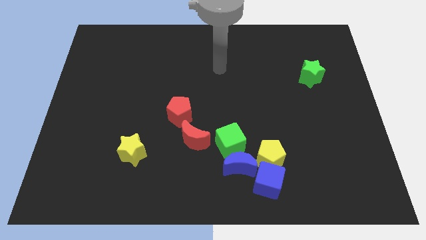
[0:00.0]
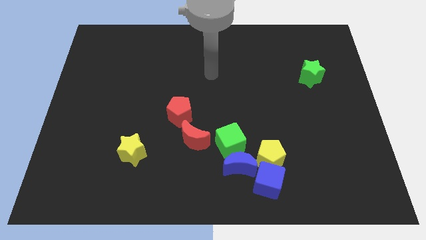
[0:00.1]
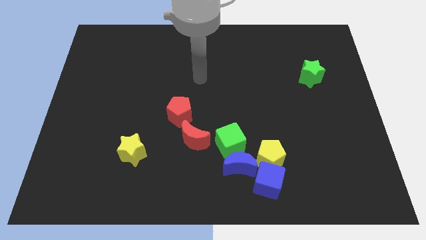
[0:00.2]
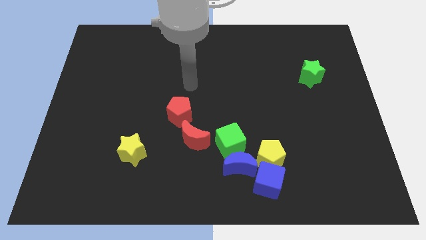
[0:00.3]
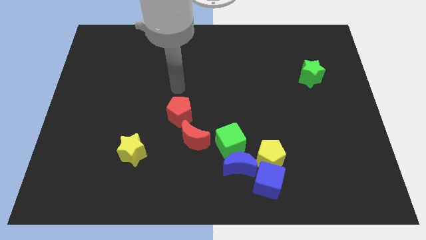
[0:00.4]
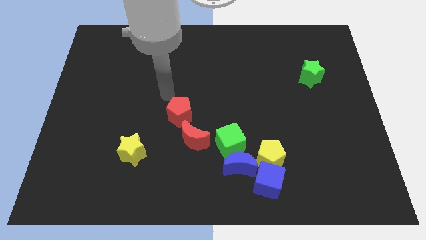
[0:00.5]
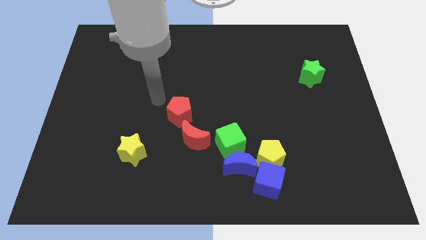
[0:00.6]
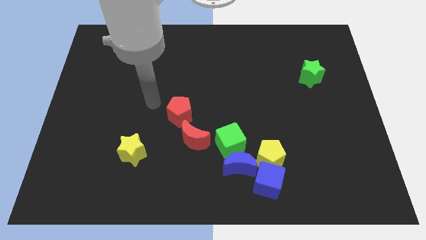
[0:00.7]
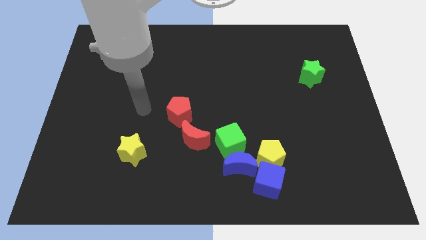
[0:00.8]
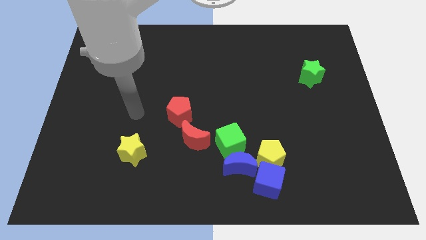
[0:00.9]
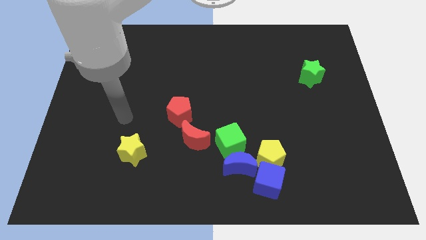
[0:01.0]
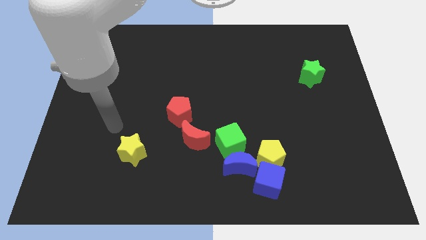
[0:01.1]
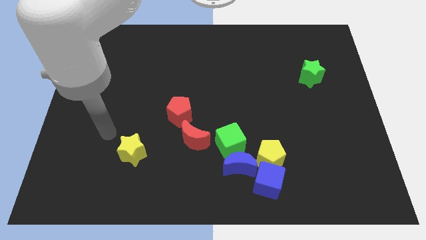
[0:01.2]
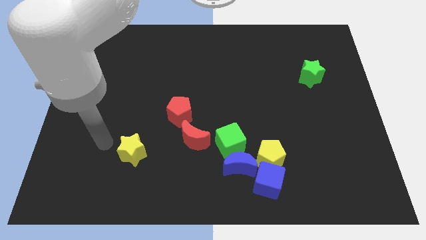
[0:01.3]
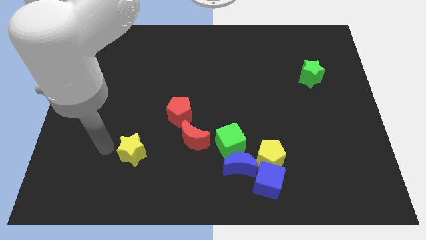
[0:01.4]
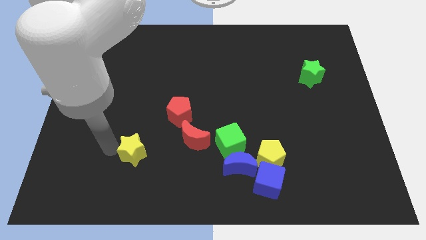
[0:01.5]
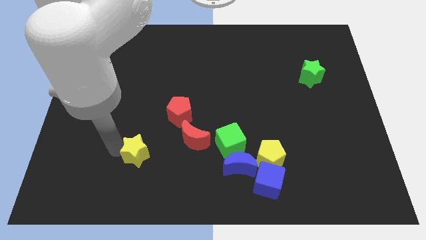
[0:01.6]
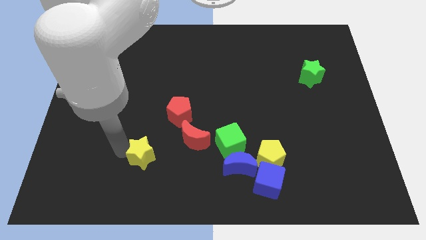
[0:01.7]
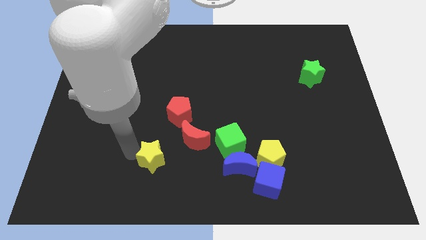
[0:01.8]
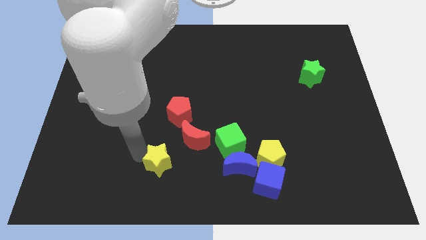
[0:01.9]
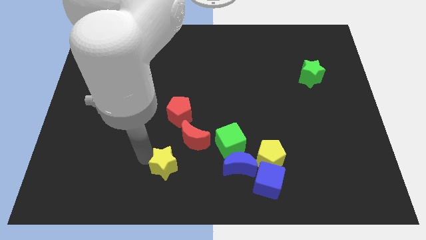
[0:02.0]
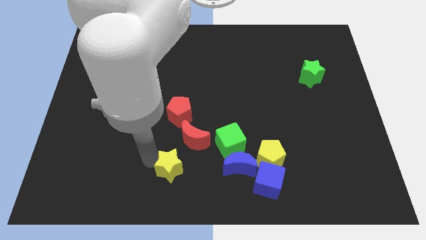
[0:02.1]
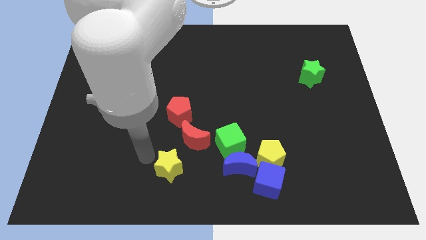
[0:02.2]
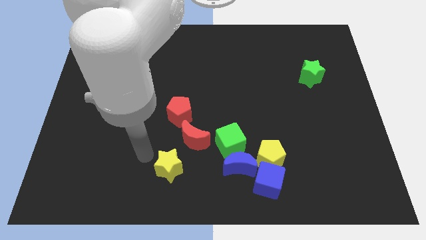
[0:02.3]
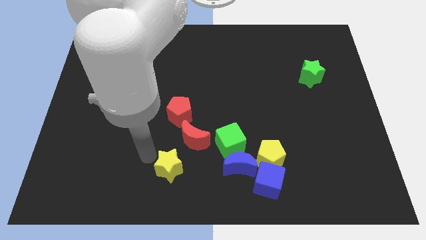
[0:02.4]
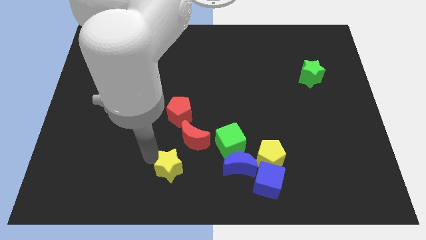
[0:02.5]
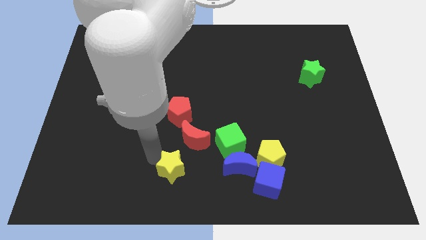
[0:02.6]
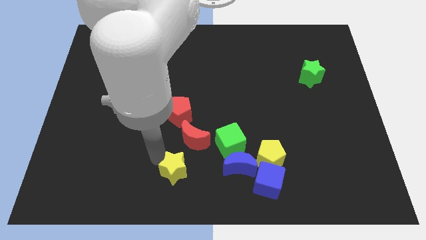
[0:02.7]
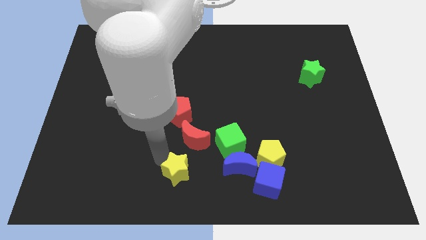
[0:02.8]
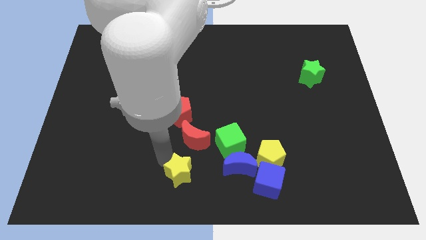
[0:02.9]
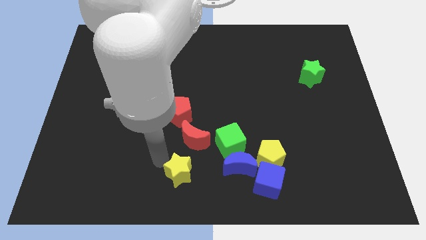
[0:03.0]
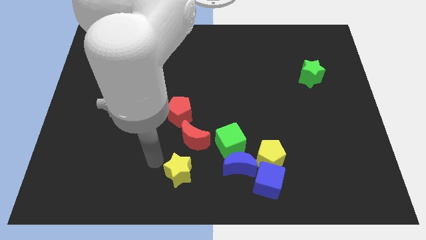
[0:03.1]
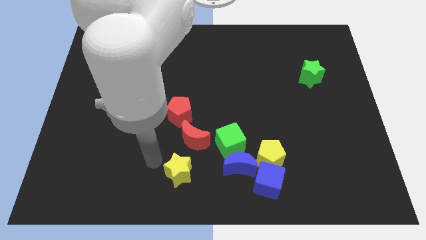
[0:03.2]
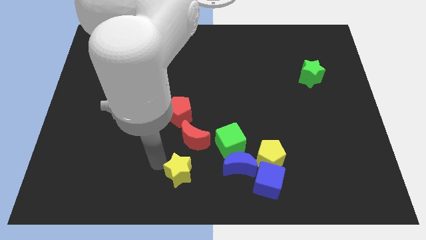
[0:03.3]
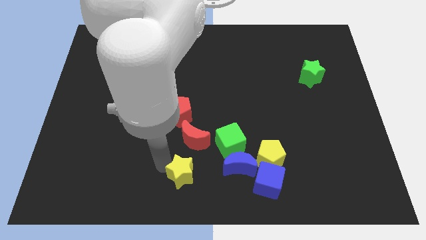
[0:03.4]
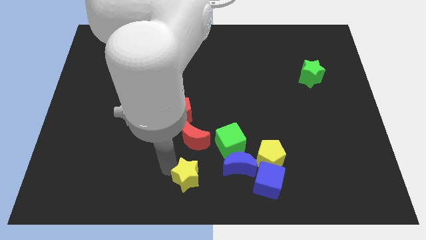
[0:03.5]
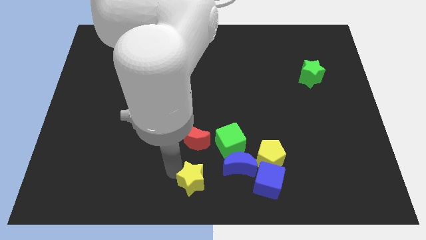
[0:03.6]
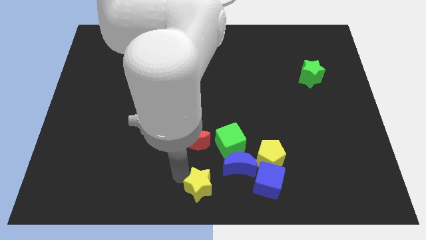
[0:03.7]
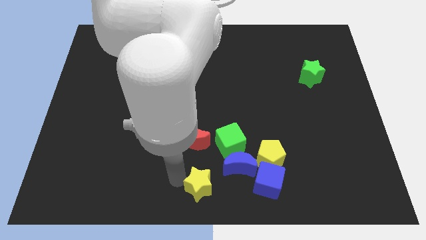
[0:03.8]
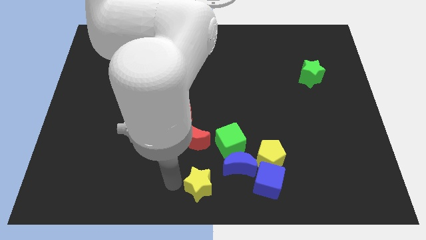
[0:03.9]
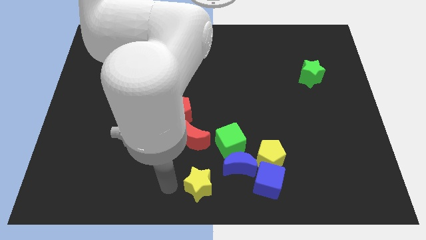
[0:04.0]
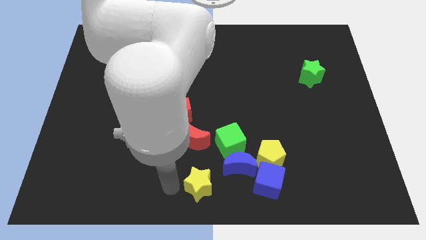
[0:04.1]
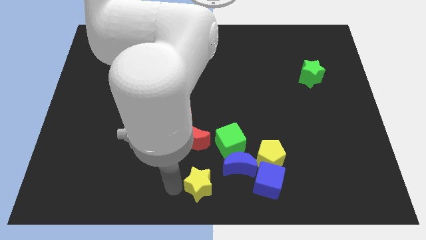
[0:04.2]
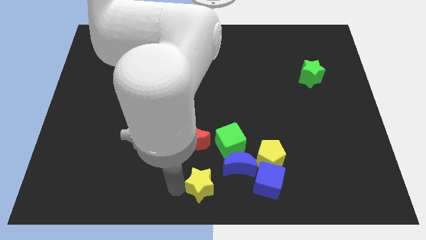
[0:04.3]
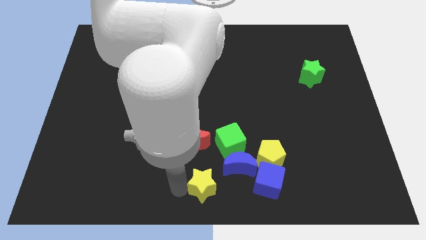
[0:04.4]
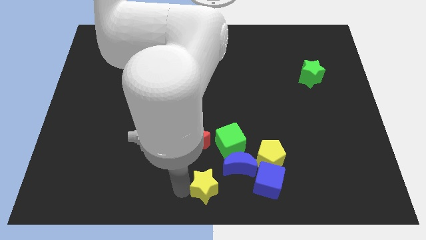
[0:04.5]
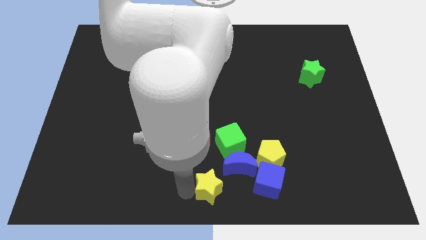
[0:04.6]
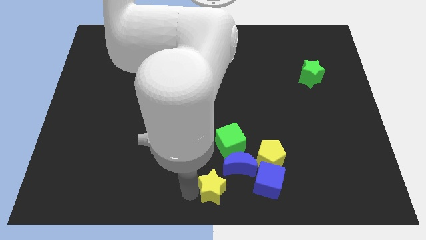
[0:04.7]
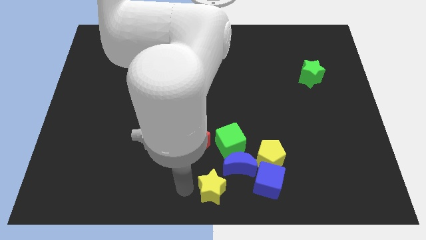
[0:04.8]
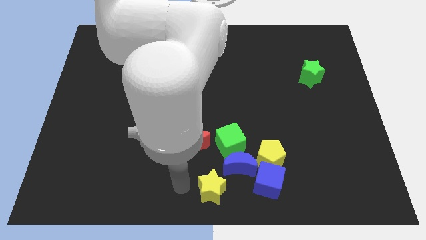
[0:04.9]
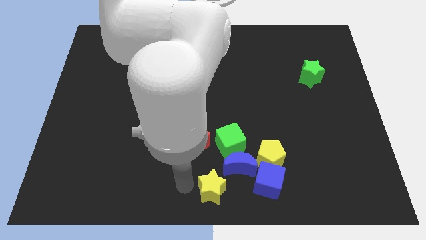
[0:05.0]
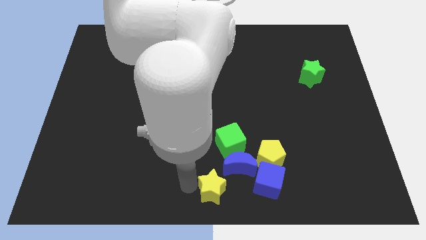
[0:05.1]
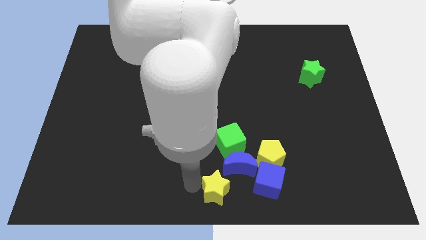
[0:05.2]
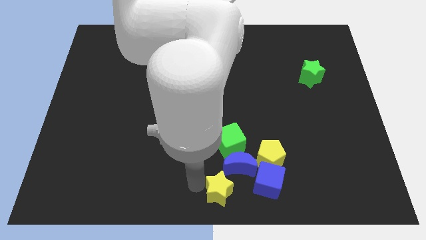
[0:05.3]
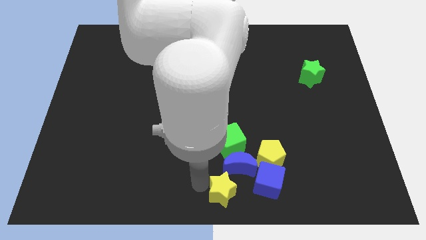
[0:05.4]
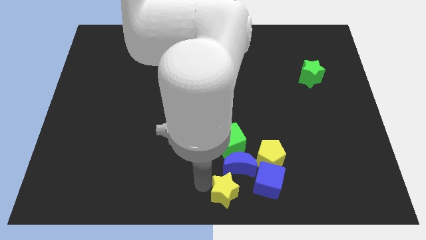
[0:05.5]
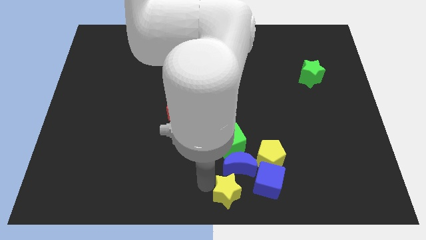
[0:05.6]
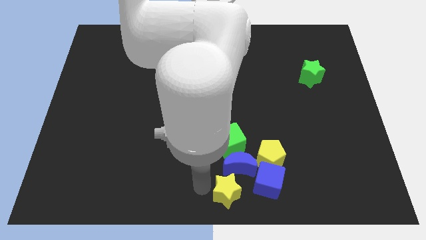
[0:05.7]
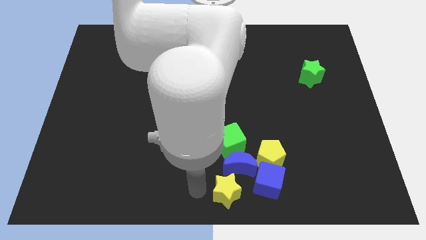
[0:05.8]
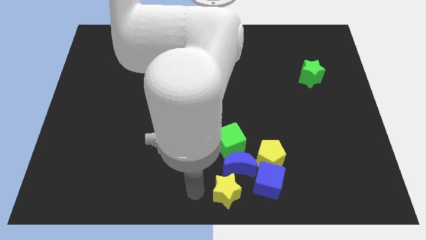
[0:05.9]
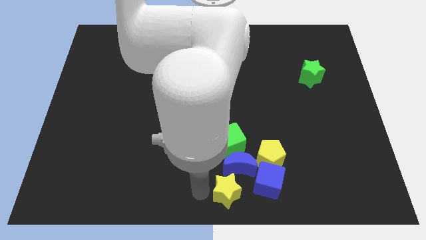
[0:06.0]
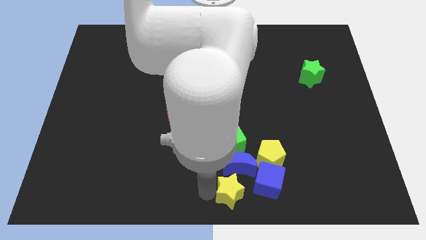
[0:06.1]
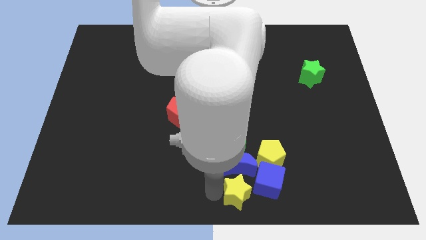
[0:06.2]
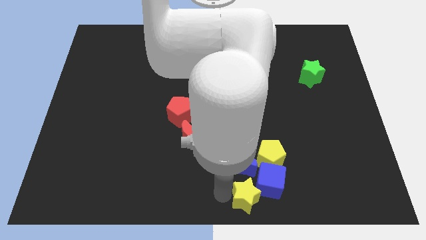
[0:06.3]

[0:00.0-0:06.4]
put the yellow star to the blue cube

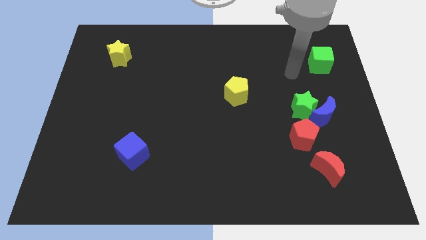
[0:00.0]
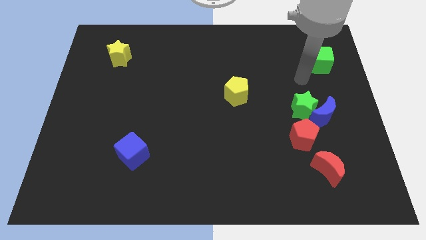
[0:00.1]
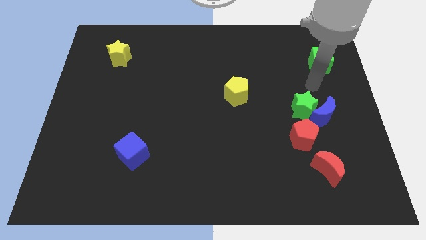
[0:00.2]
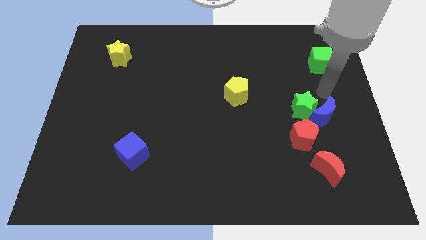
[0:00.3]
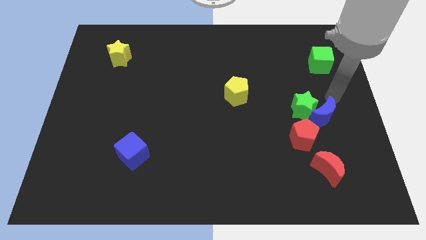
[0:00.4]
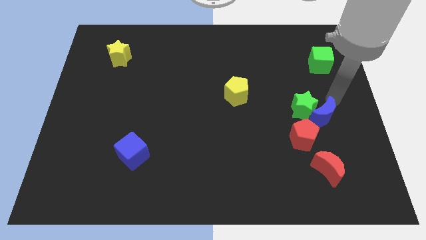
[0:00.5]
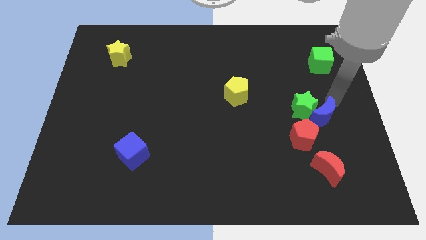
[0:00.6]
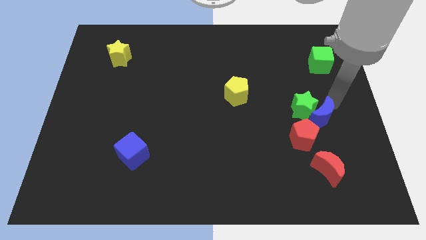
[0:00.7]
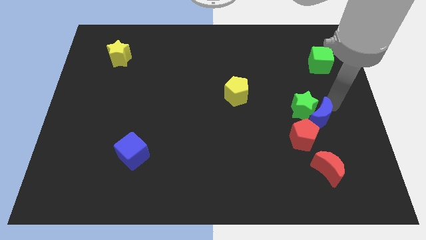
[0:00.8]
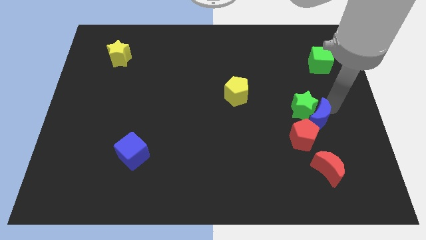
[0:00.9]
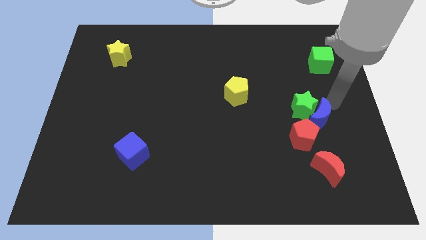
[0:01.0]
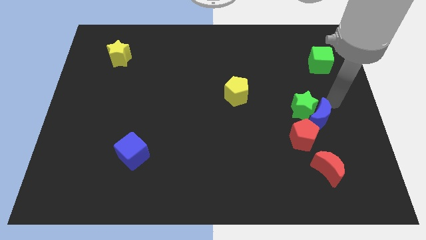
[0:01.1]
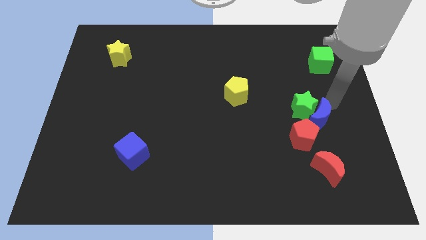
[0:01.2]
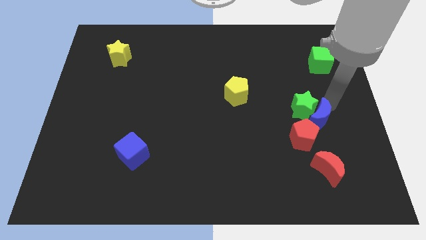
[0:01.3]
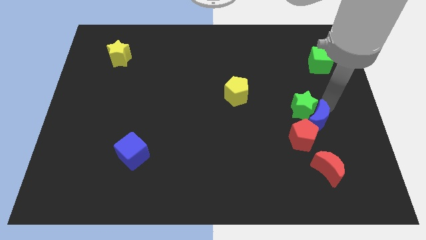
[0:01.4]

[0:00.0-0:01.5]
move the blue moon to the red pentagon
